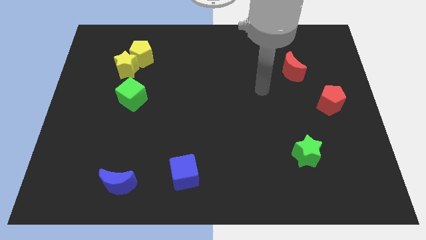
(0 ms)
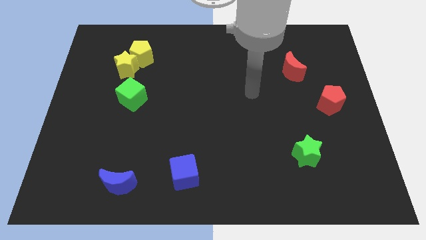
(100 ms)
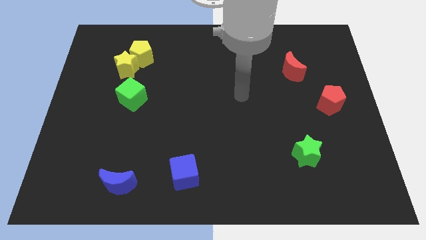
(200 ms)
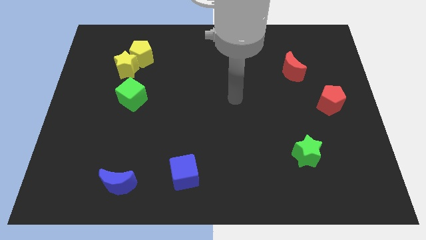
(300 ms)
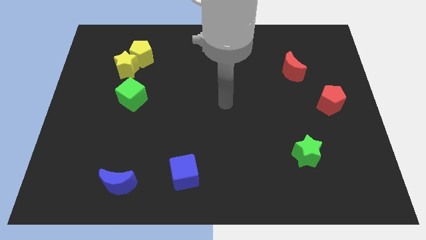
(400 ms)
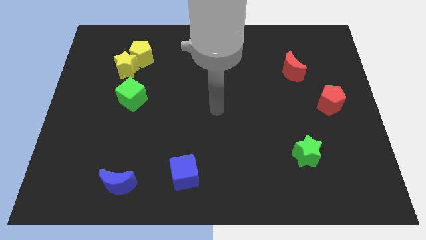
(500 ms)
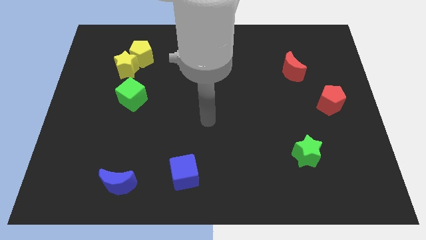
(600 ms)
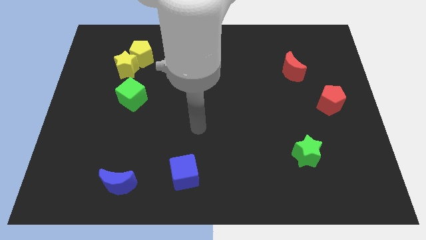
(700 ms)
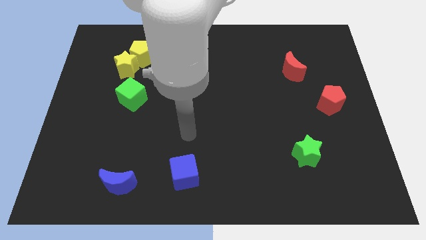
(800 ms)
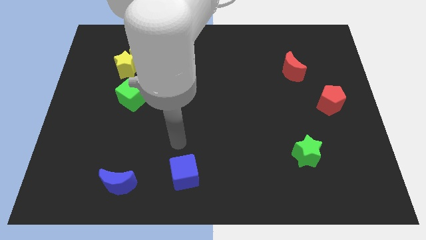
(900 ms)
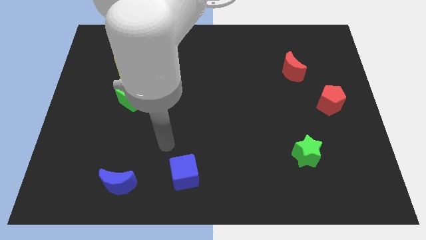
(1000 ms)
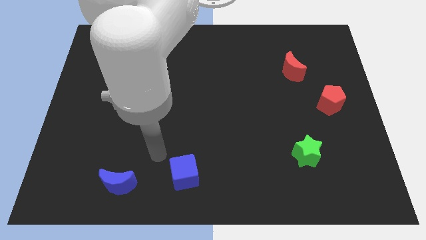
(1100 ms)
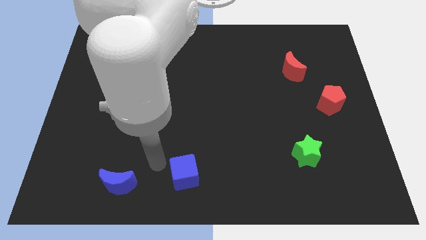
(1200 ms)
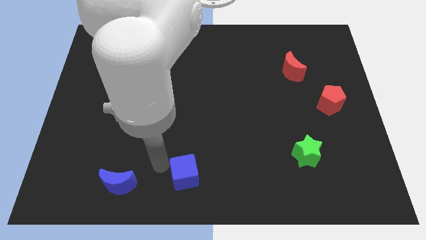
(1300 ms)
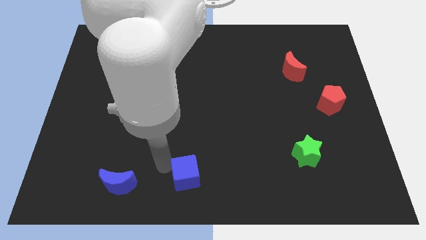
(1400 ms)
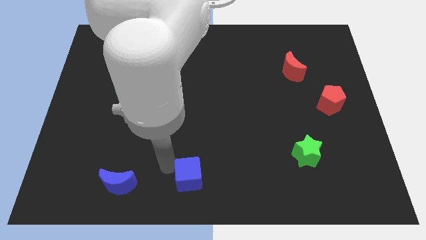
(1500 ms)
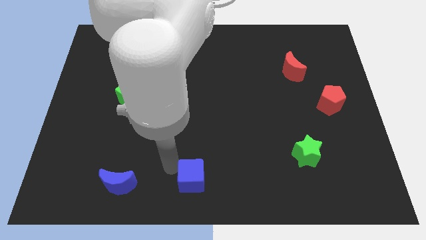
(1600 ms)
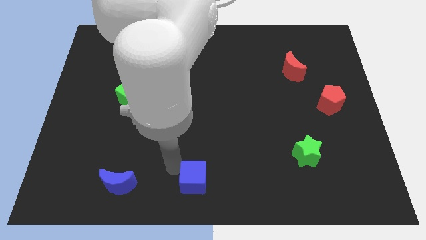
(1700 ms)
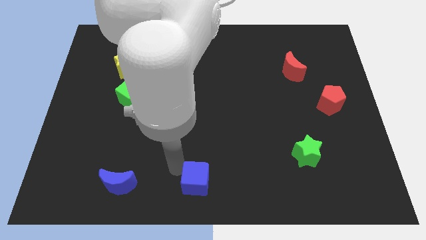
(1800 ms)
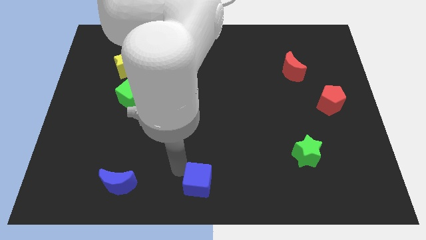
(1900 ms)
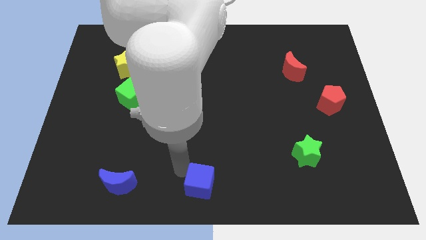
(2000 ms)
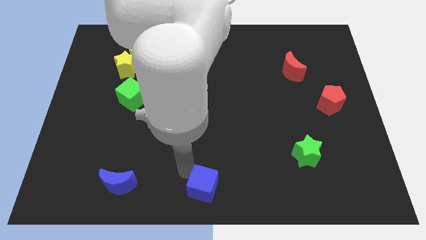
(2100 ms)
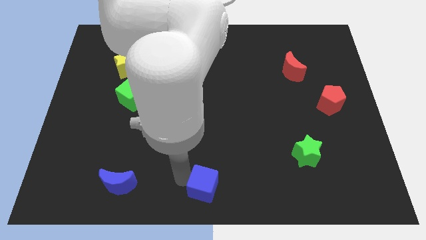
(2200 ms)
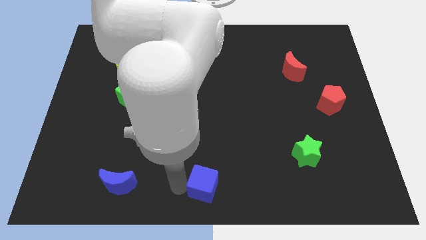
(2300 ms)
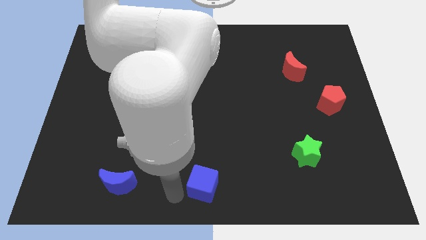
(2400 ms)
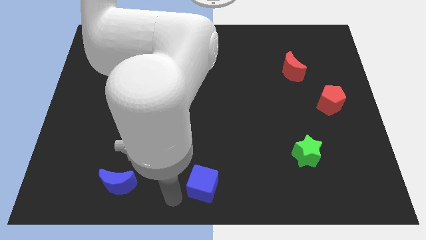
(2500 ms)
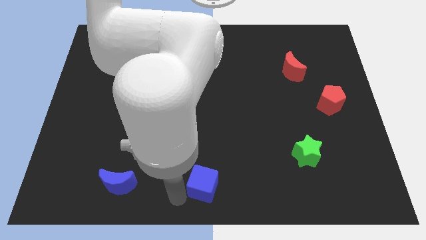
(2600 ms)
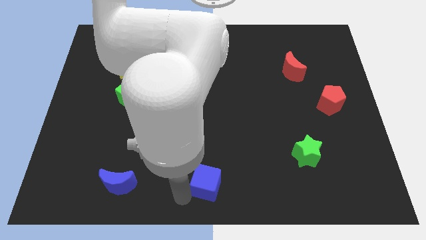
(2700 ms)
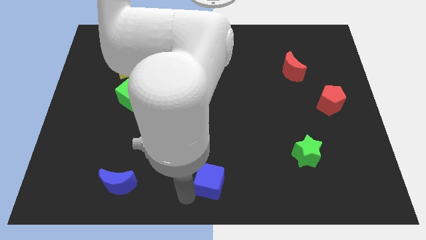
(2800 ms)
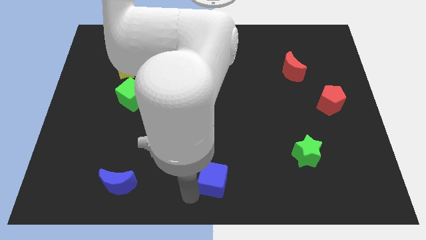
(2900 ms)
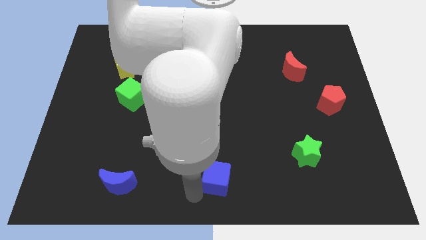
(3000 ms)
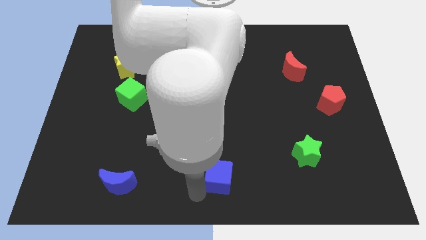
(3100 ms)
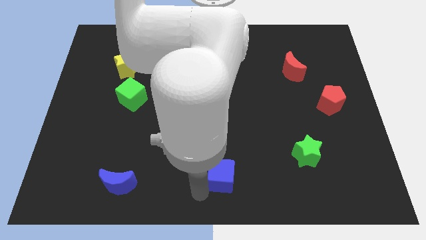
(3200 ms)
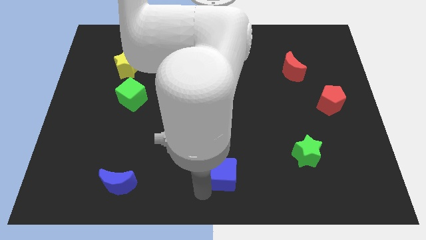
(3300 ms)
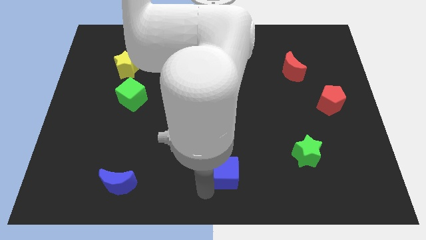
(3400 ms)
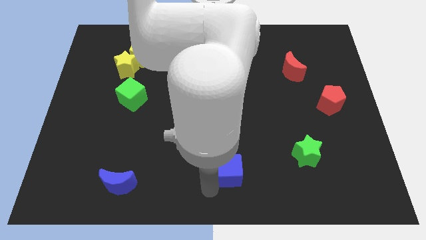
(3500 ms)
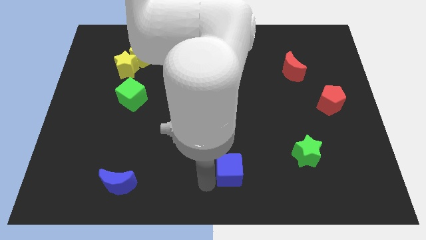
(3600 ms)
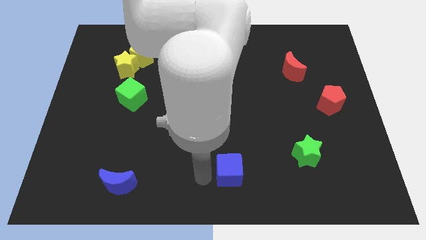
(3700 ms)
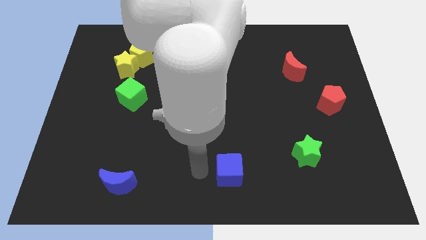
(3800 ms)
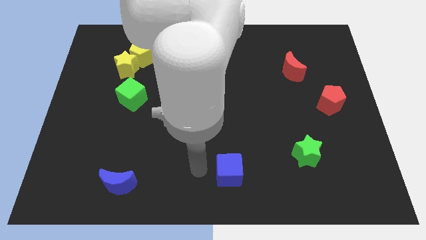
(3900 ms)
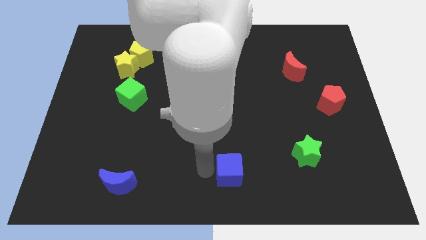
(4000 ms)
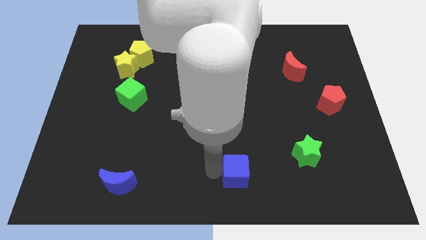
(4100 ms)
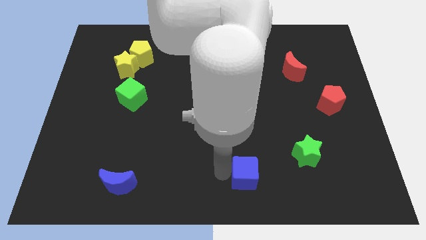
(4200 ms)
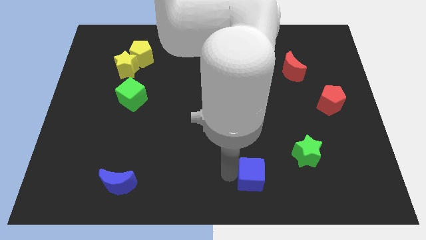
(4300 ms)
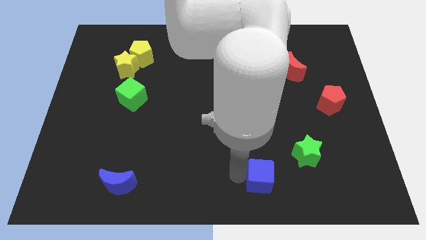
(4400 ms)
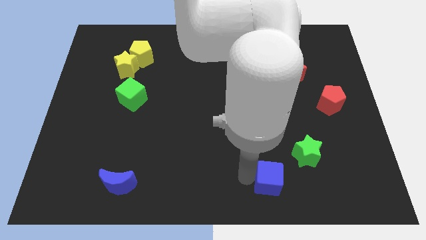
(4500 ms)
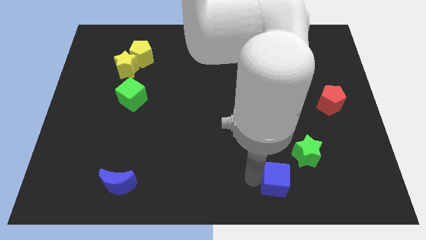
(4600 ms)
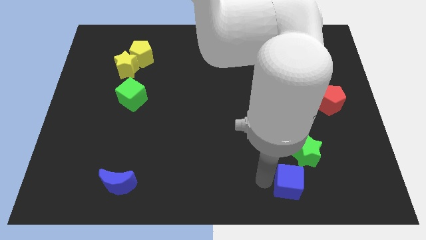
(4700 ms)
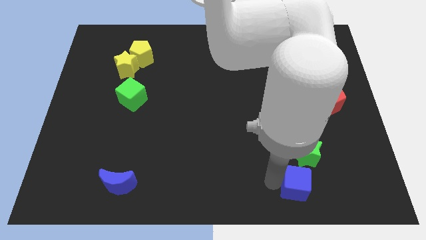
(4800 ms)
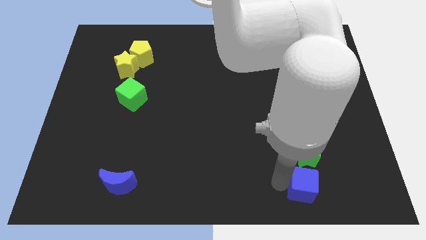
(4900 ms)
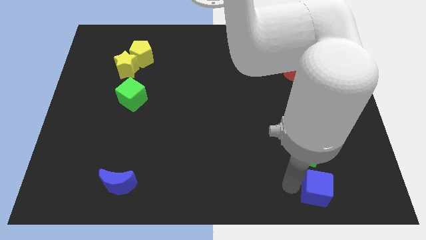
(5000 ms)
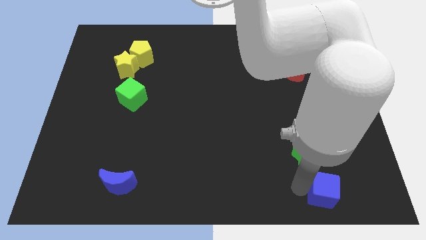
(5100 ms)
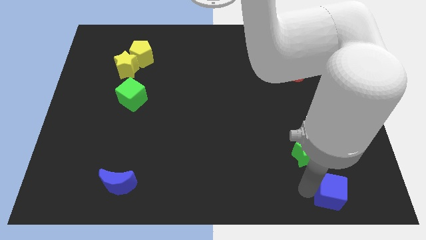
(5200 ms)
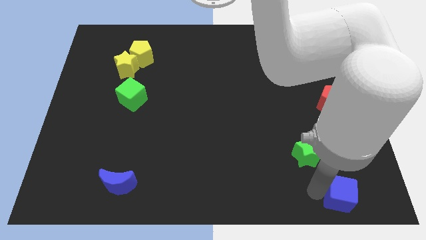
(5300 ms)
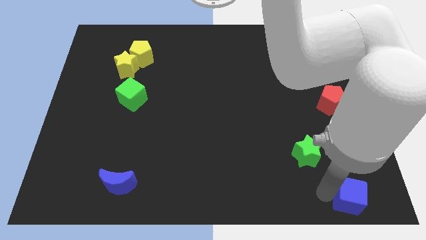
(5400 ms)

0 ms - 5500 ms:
put the blue cube to the bottom right corner

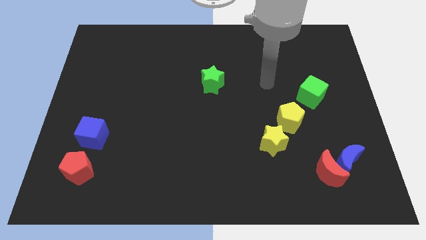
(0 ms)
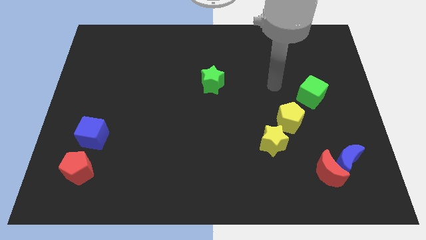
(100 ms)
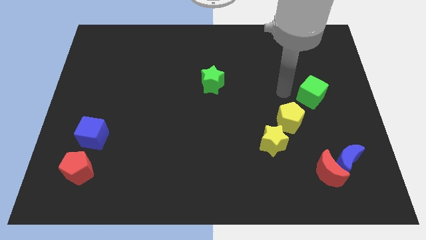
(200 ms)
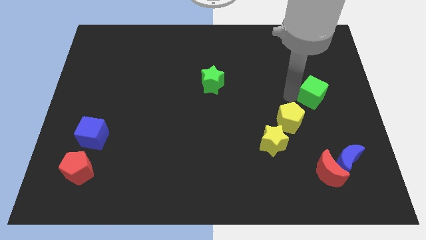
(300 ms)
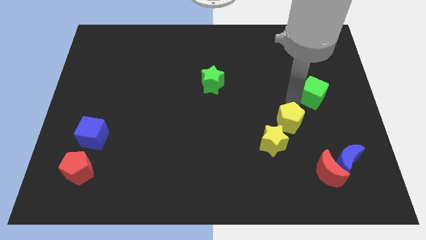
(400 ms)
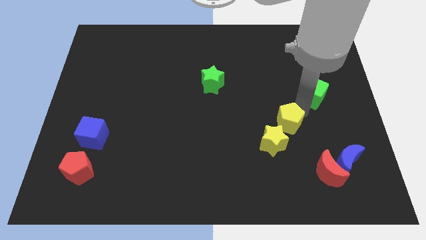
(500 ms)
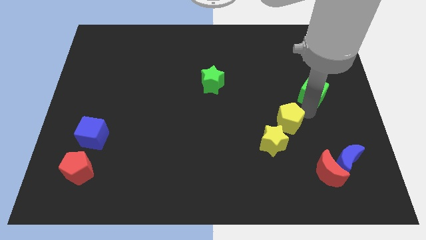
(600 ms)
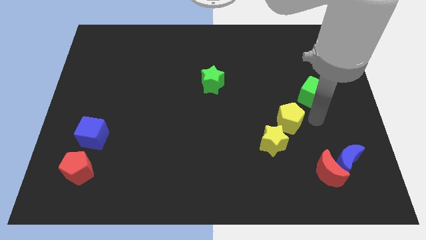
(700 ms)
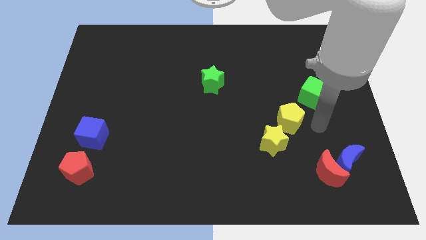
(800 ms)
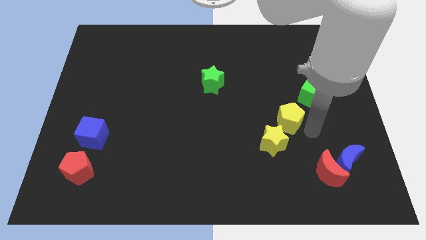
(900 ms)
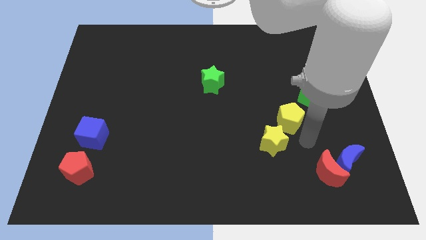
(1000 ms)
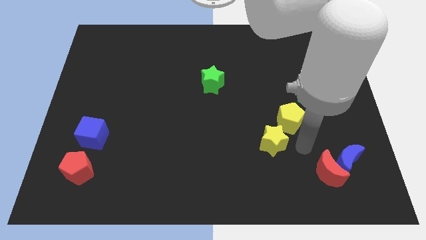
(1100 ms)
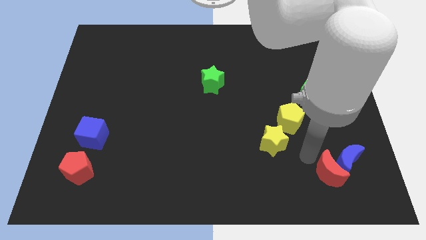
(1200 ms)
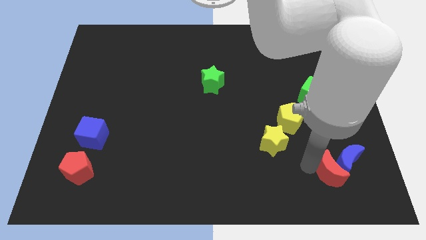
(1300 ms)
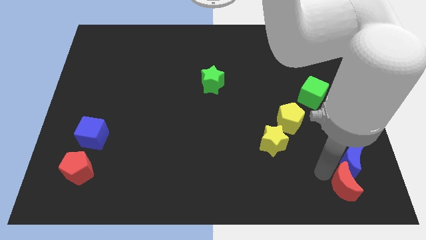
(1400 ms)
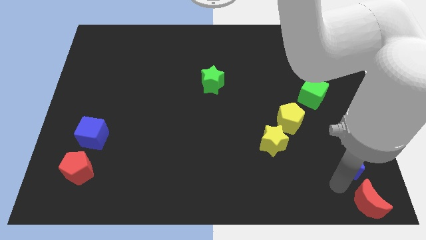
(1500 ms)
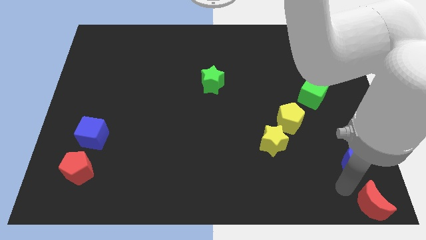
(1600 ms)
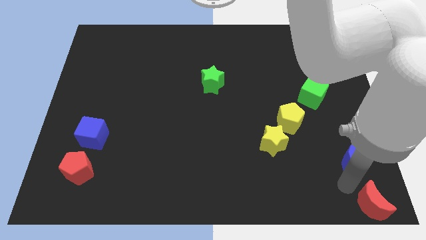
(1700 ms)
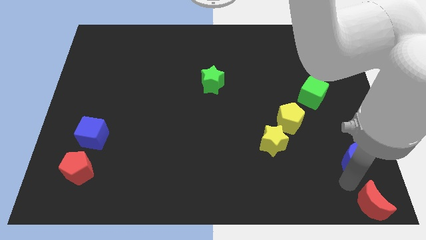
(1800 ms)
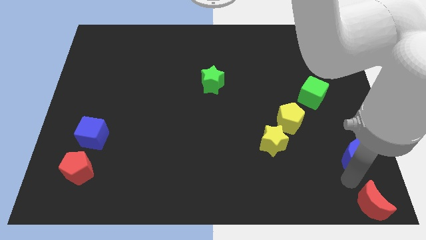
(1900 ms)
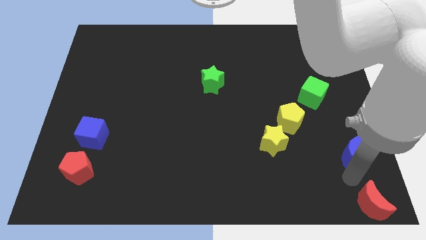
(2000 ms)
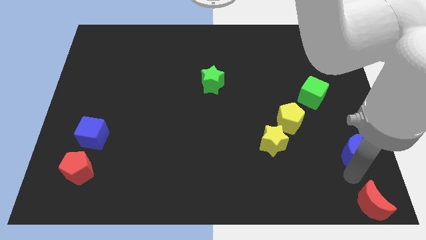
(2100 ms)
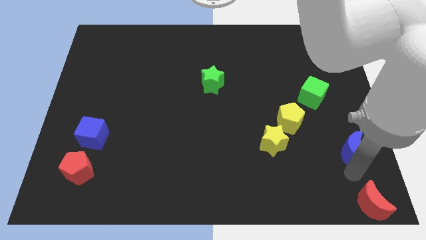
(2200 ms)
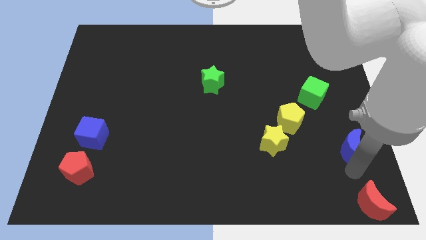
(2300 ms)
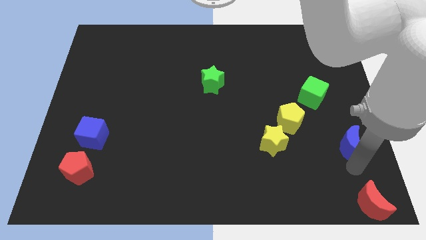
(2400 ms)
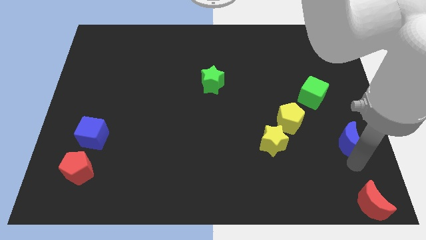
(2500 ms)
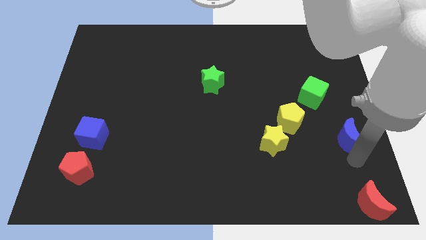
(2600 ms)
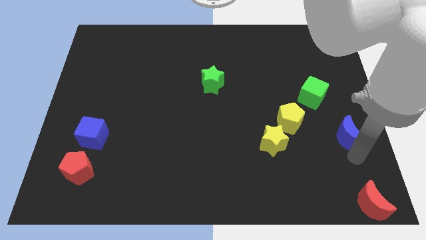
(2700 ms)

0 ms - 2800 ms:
slide the blue moon to the center right
